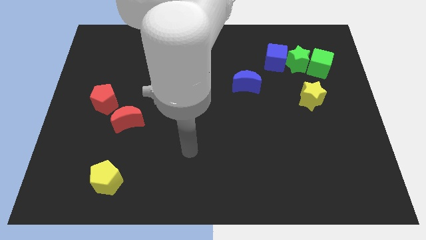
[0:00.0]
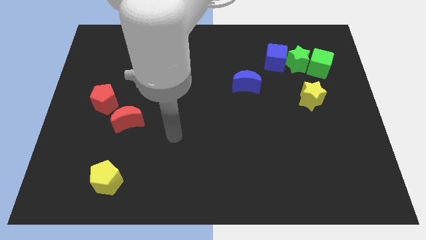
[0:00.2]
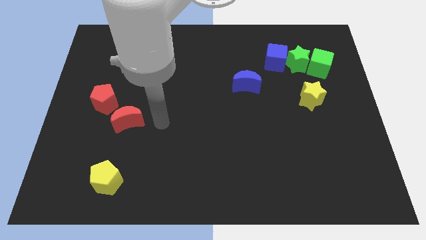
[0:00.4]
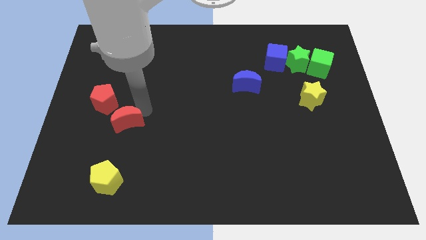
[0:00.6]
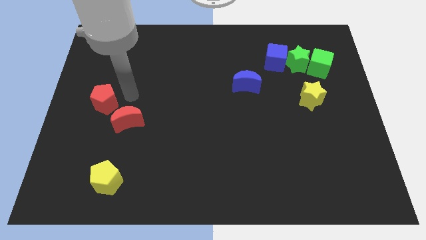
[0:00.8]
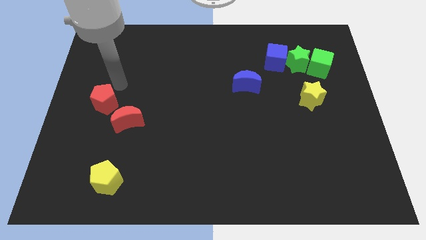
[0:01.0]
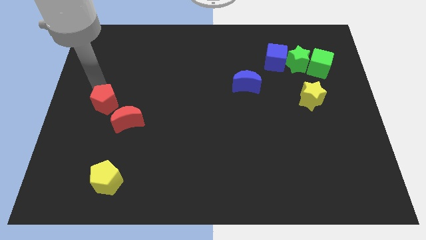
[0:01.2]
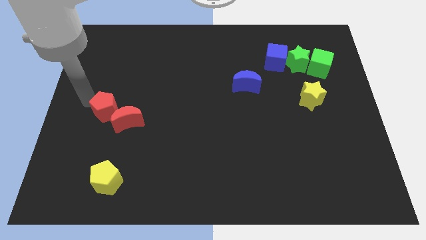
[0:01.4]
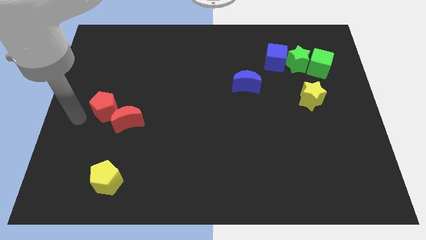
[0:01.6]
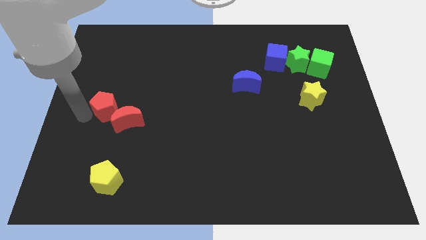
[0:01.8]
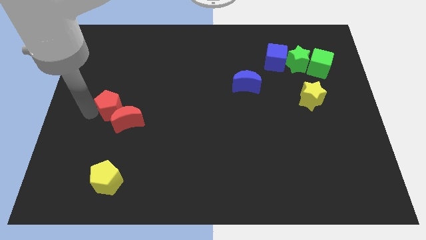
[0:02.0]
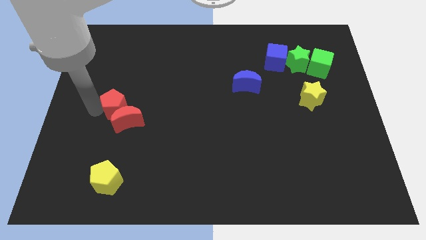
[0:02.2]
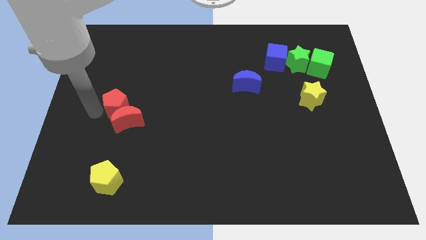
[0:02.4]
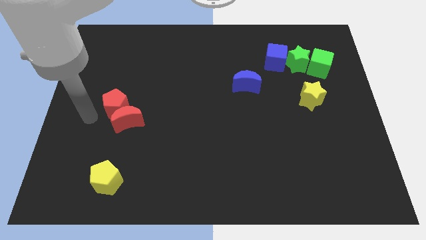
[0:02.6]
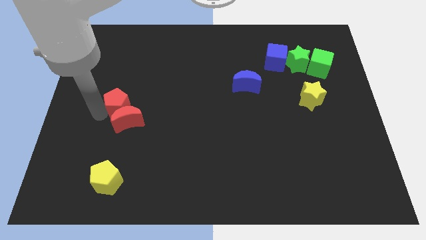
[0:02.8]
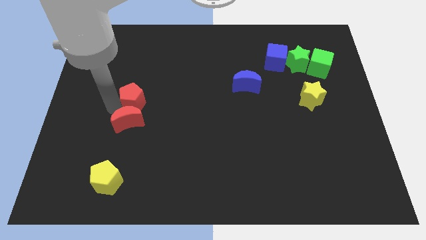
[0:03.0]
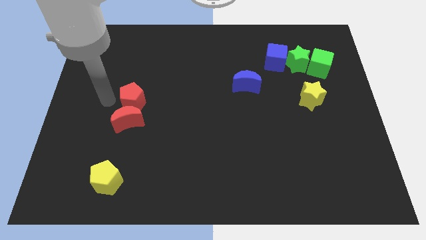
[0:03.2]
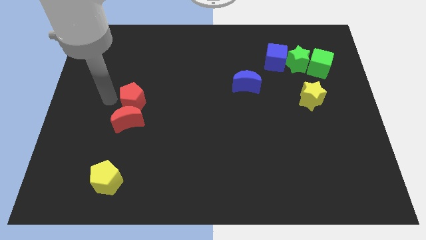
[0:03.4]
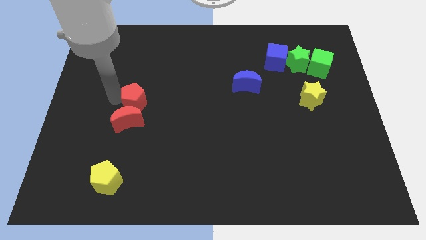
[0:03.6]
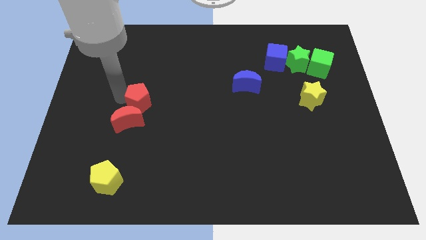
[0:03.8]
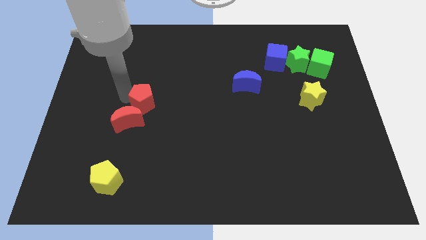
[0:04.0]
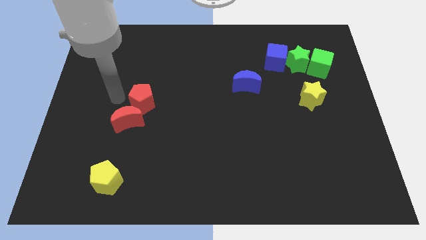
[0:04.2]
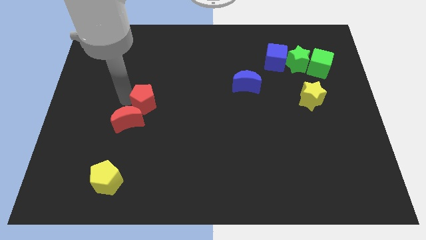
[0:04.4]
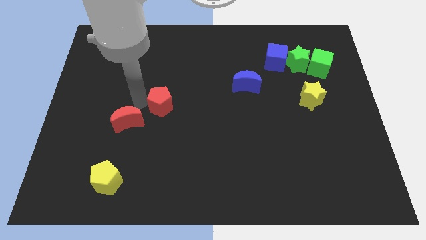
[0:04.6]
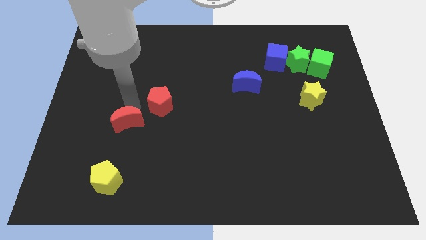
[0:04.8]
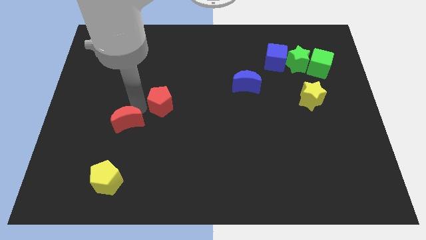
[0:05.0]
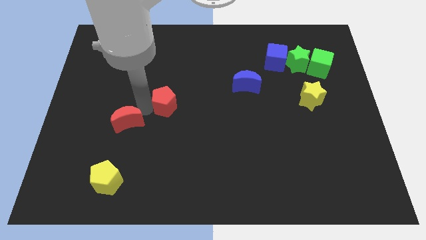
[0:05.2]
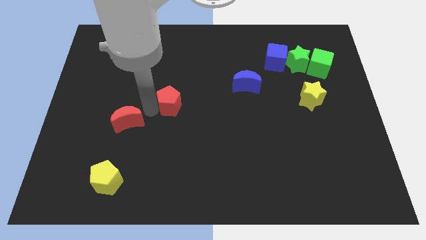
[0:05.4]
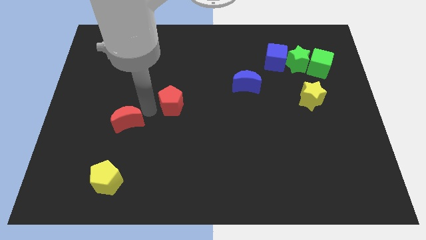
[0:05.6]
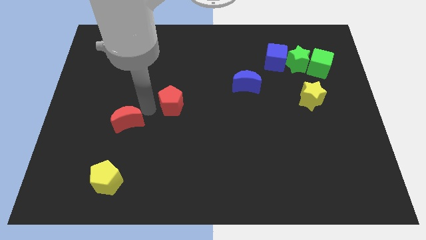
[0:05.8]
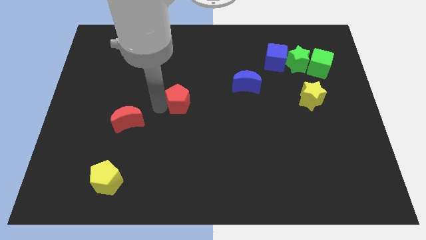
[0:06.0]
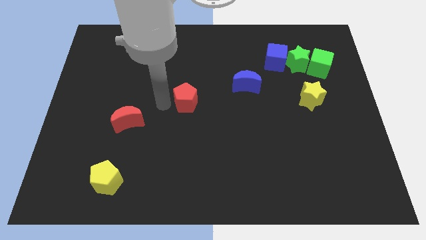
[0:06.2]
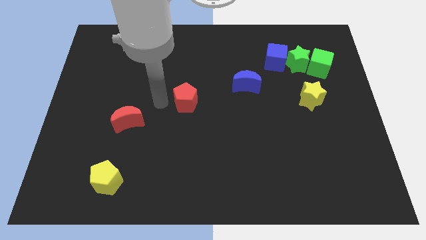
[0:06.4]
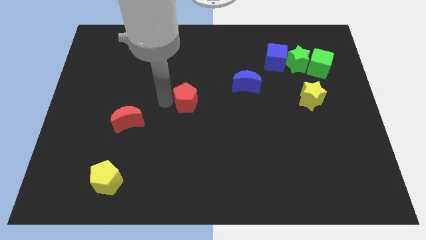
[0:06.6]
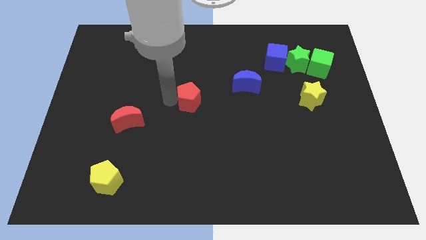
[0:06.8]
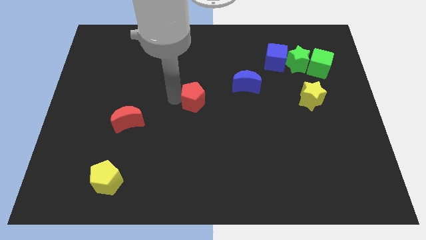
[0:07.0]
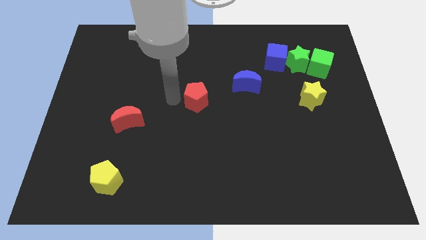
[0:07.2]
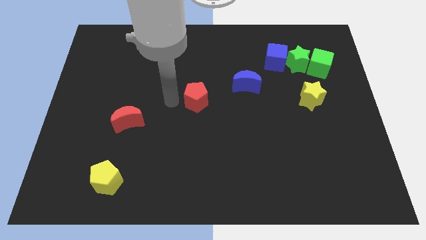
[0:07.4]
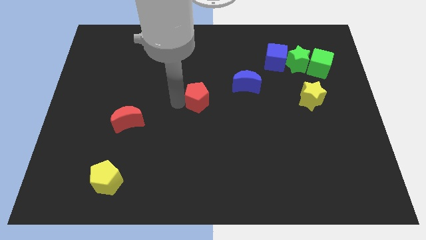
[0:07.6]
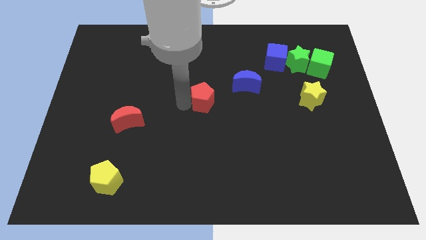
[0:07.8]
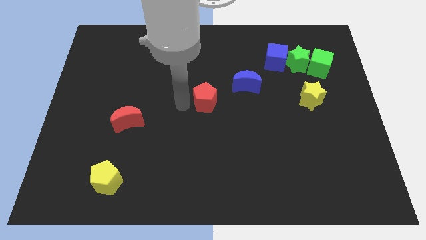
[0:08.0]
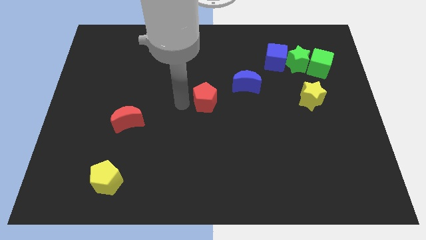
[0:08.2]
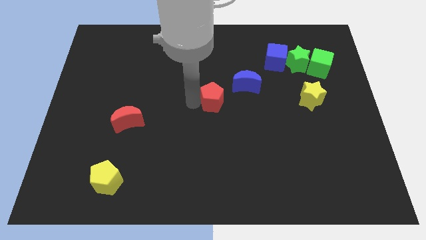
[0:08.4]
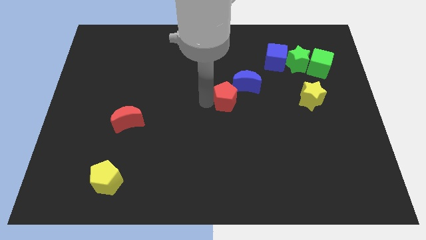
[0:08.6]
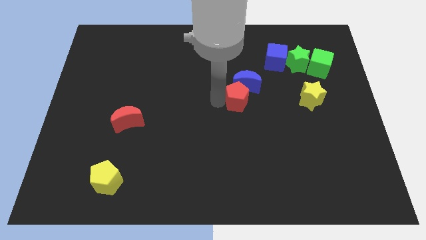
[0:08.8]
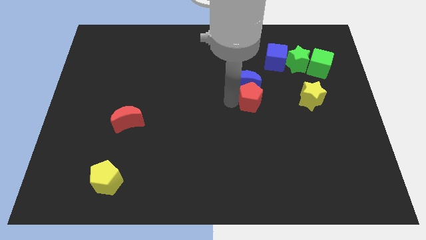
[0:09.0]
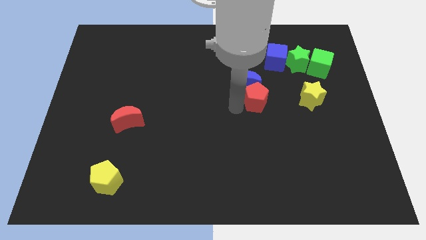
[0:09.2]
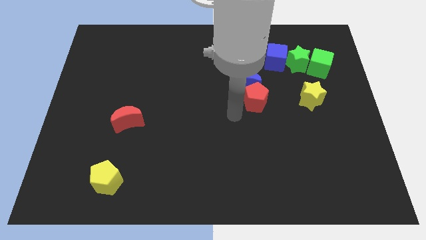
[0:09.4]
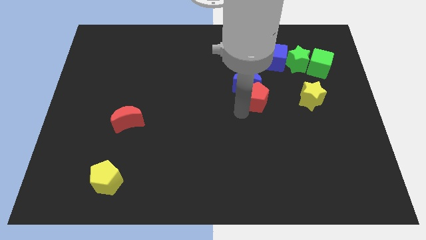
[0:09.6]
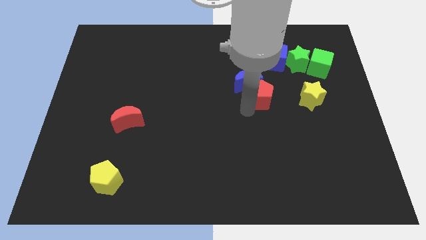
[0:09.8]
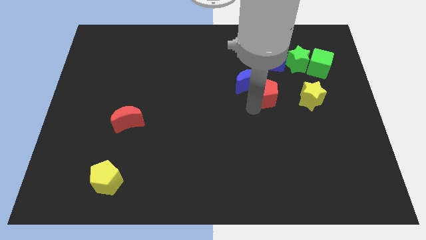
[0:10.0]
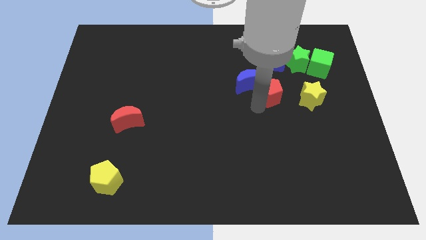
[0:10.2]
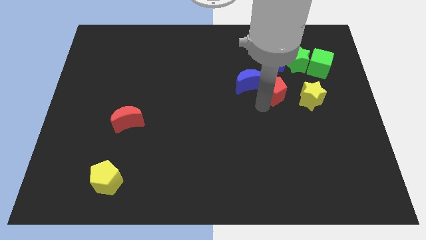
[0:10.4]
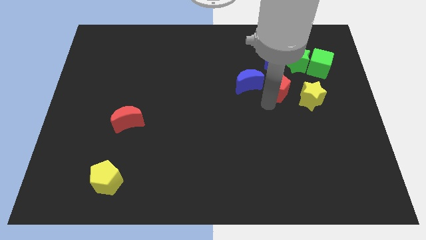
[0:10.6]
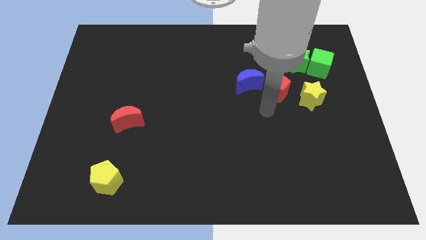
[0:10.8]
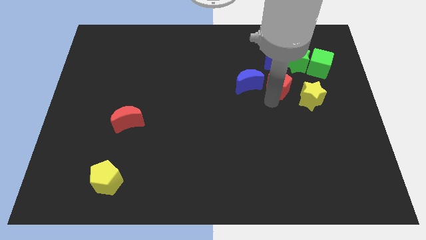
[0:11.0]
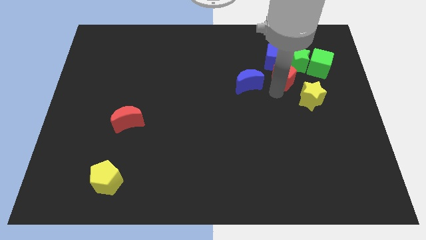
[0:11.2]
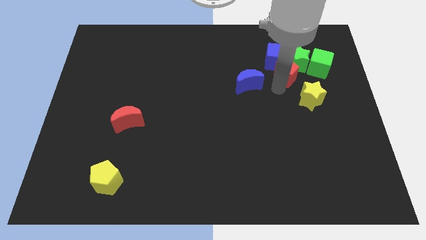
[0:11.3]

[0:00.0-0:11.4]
put the red pentagon next to the green star
